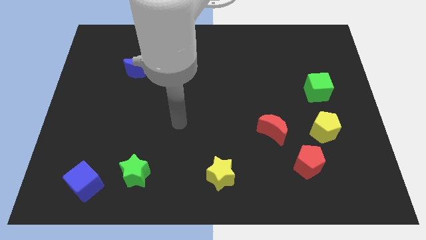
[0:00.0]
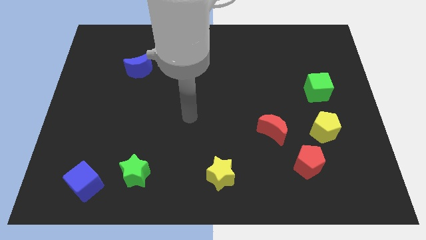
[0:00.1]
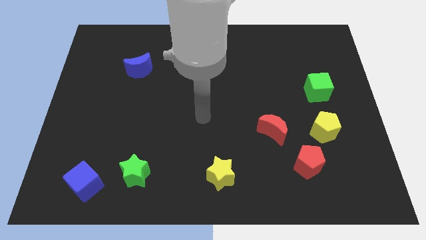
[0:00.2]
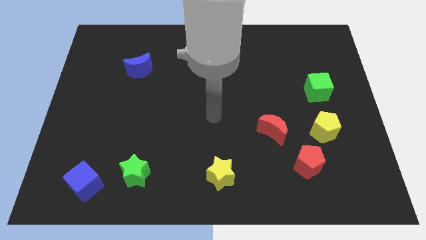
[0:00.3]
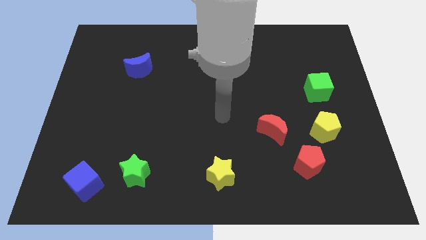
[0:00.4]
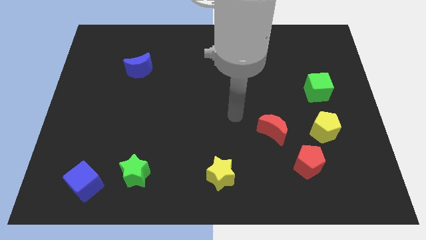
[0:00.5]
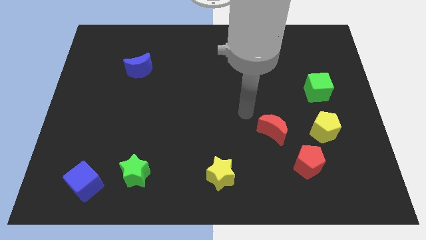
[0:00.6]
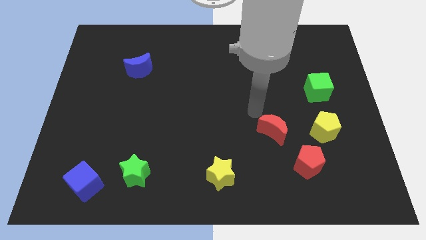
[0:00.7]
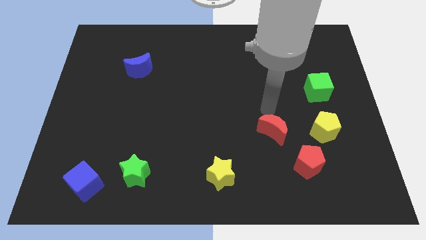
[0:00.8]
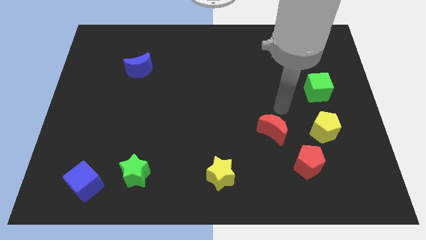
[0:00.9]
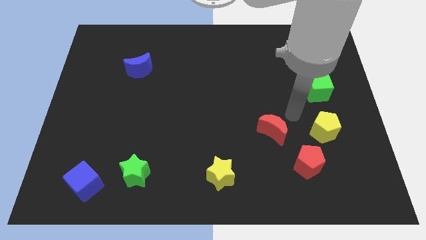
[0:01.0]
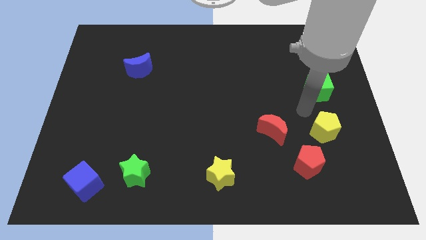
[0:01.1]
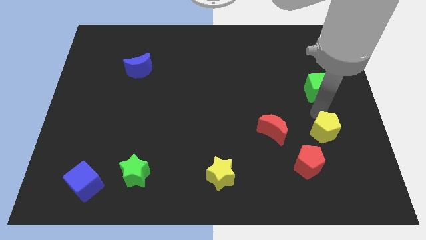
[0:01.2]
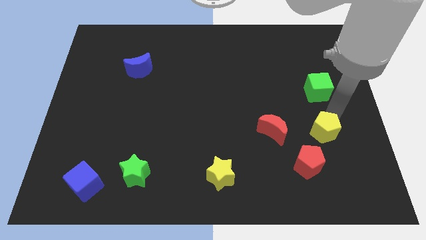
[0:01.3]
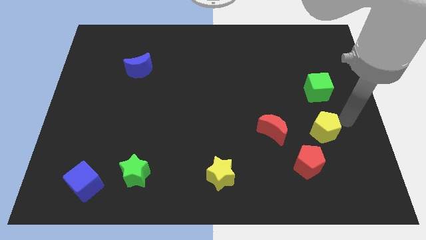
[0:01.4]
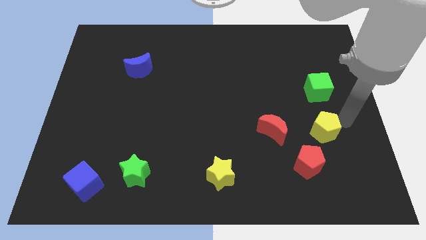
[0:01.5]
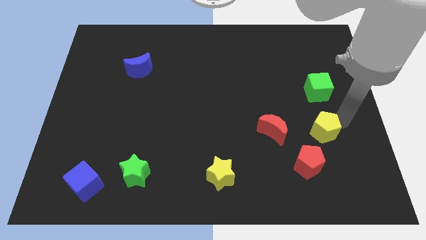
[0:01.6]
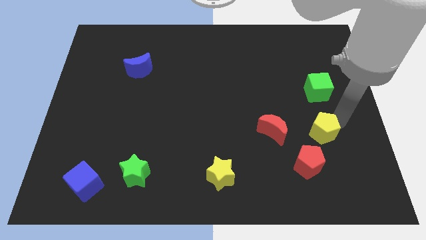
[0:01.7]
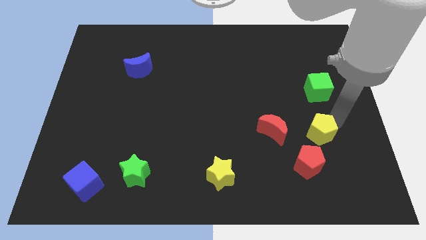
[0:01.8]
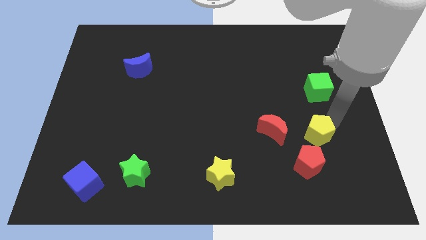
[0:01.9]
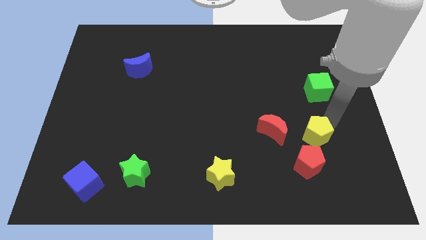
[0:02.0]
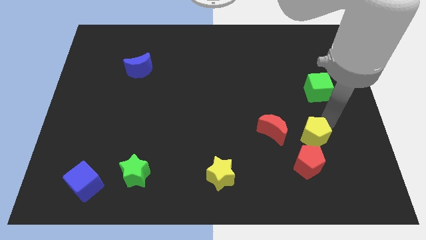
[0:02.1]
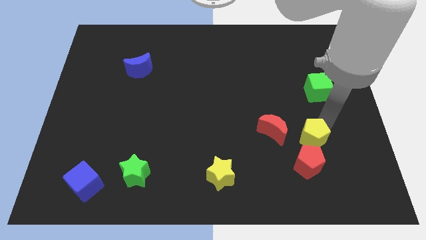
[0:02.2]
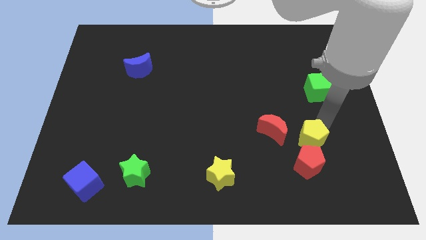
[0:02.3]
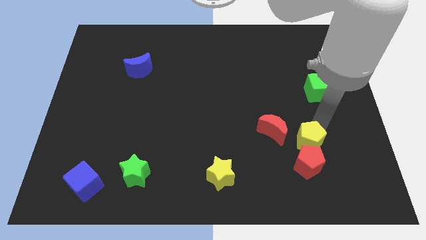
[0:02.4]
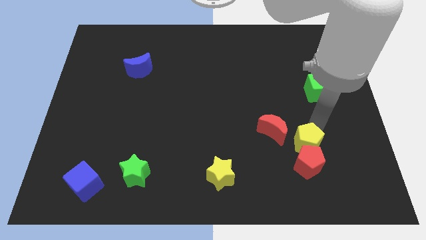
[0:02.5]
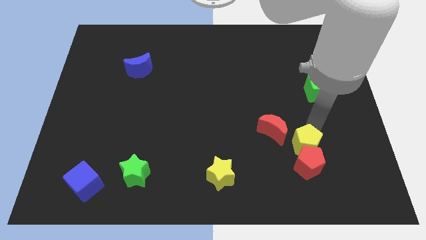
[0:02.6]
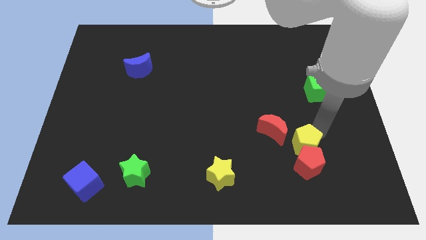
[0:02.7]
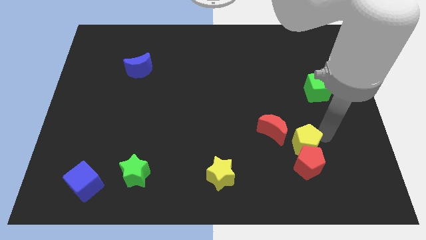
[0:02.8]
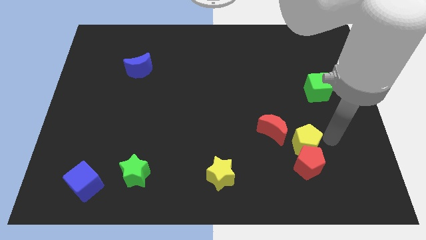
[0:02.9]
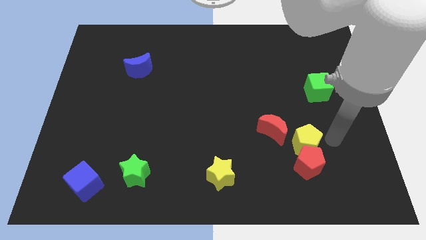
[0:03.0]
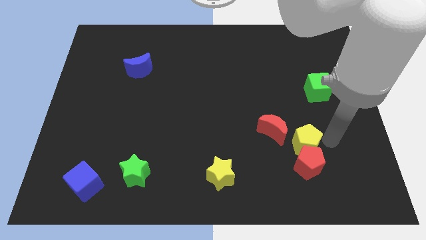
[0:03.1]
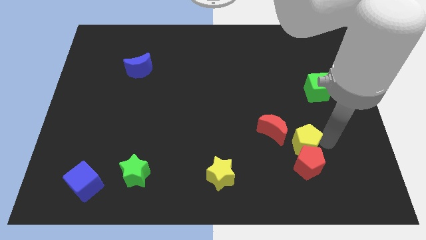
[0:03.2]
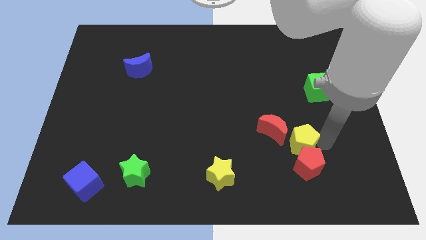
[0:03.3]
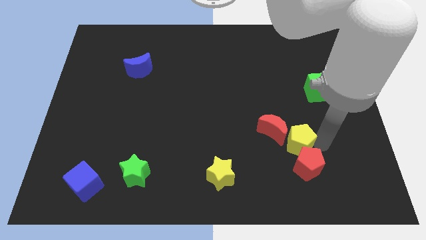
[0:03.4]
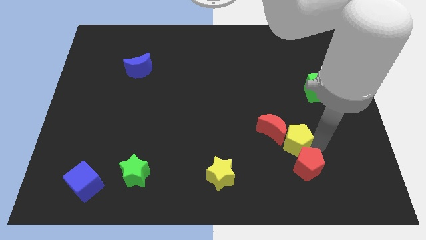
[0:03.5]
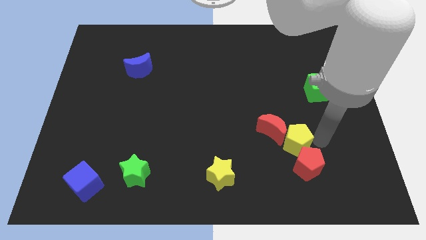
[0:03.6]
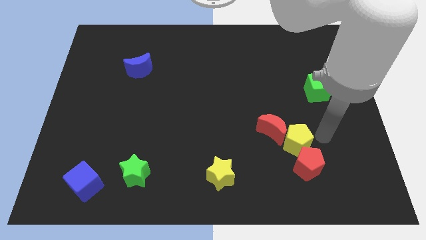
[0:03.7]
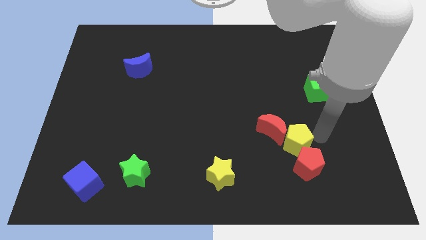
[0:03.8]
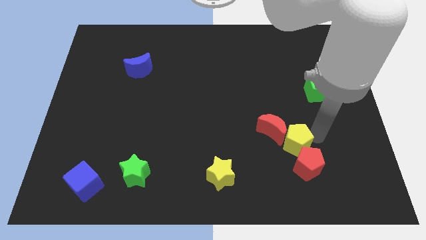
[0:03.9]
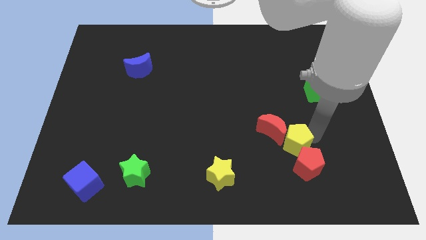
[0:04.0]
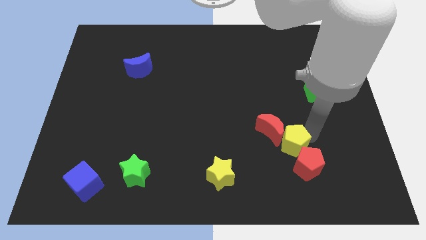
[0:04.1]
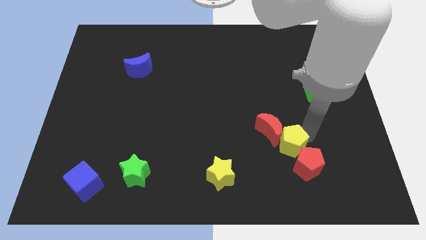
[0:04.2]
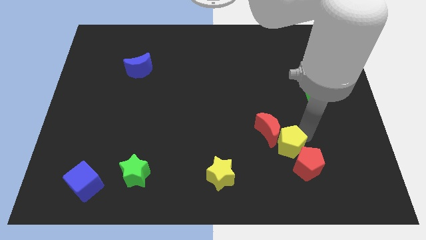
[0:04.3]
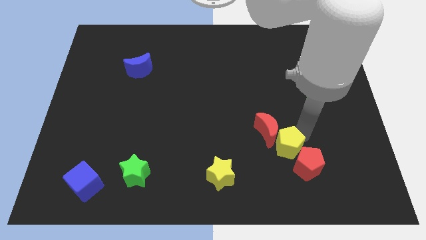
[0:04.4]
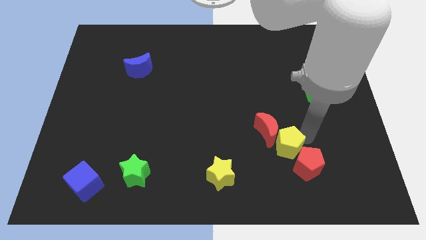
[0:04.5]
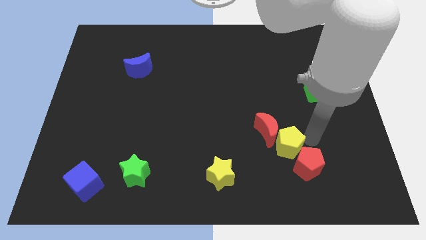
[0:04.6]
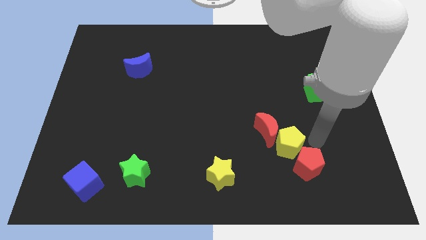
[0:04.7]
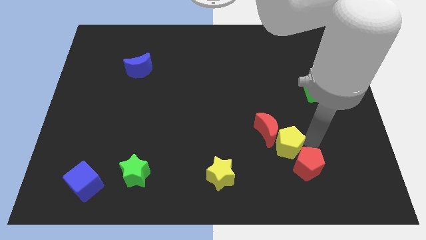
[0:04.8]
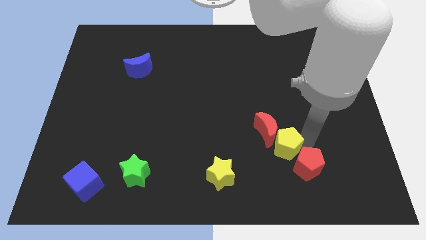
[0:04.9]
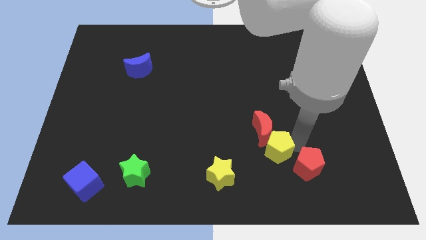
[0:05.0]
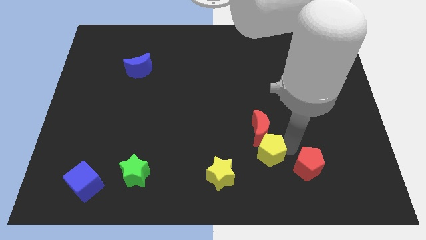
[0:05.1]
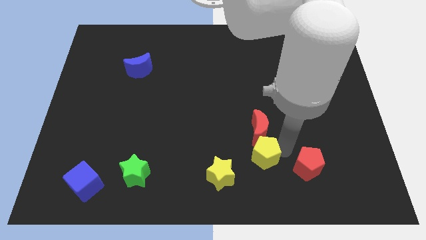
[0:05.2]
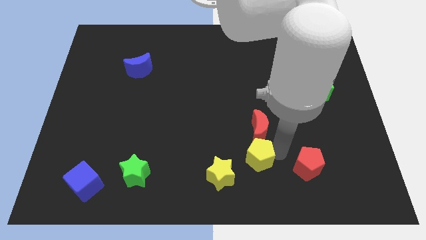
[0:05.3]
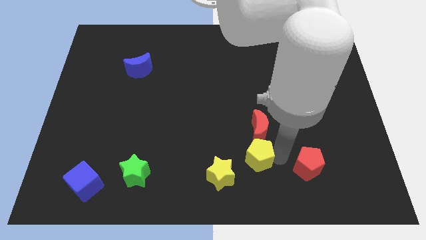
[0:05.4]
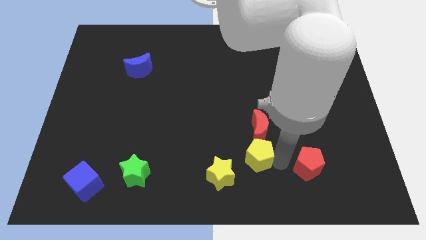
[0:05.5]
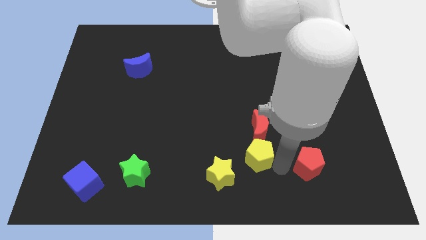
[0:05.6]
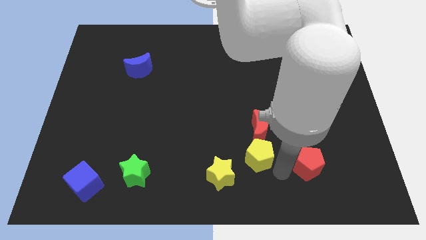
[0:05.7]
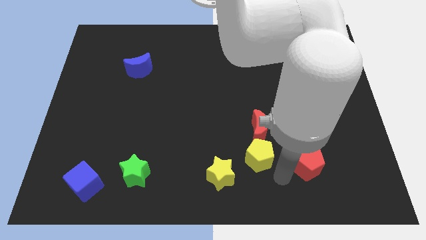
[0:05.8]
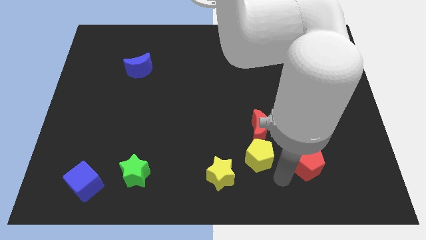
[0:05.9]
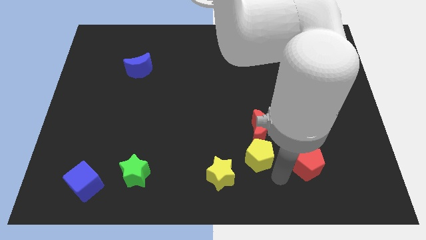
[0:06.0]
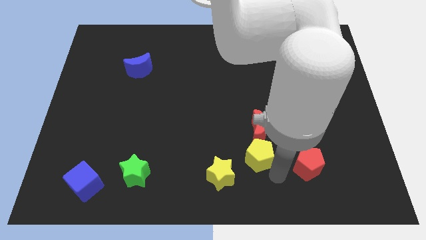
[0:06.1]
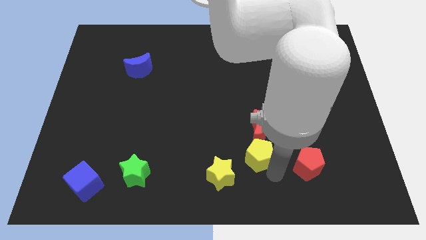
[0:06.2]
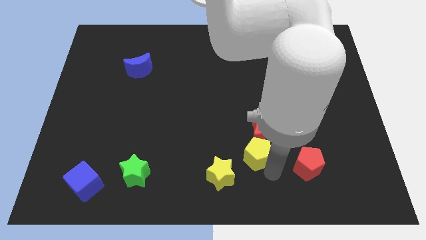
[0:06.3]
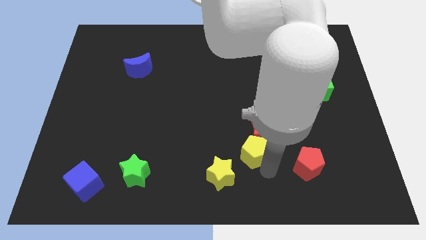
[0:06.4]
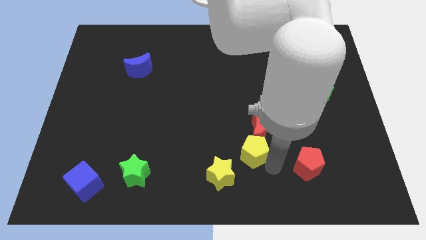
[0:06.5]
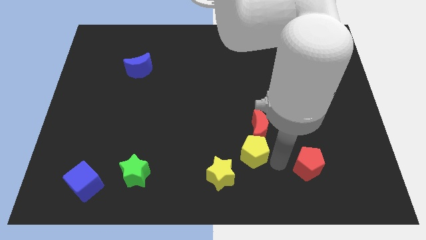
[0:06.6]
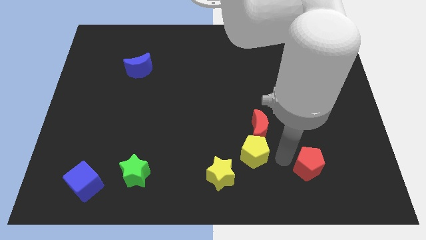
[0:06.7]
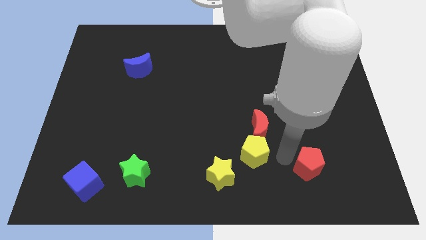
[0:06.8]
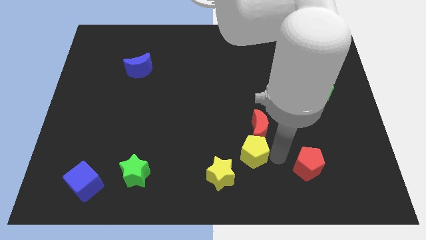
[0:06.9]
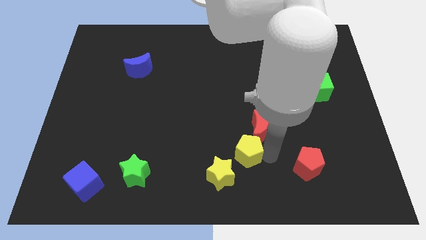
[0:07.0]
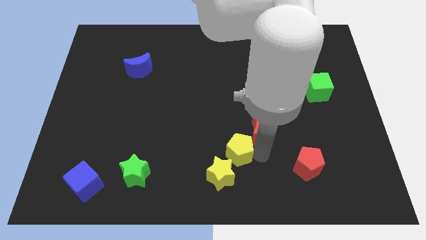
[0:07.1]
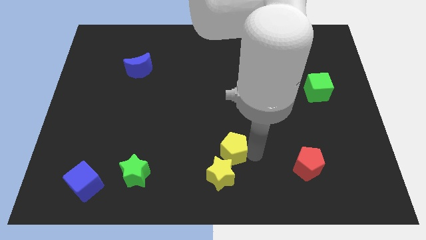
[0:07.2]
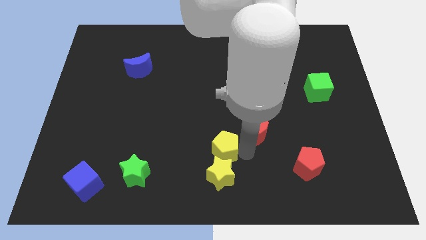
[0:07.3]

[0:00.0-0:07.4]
move the yellow pentagon to the left

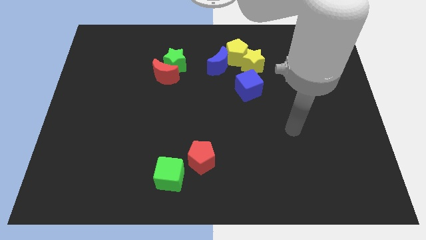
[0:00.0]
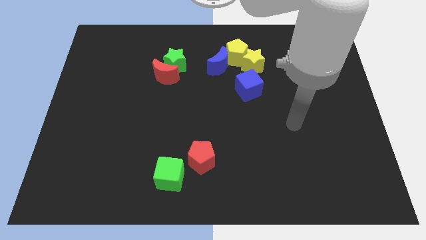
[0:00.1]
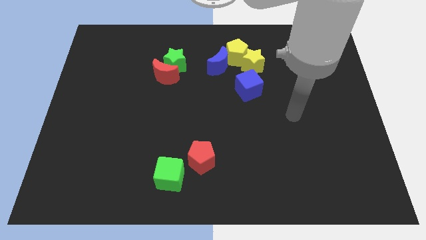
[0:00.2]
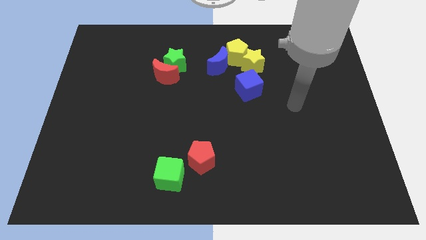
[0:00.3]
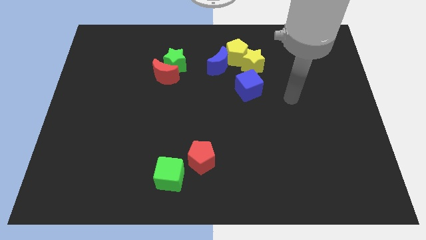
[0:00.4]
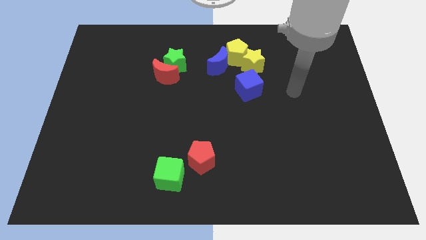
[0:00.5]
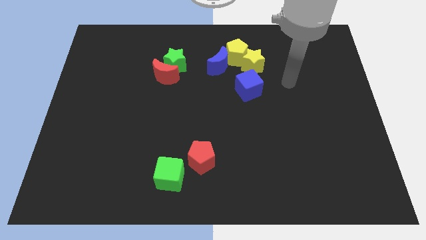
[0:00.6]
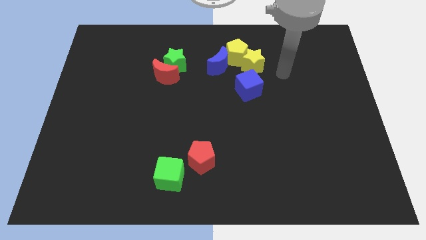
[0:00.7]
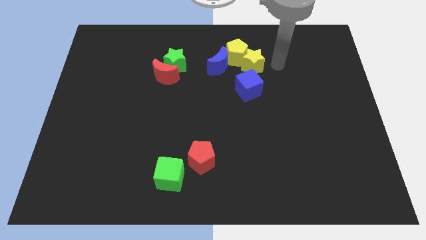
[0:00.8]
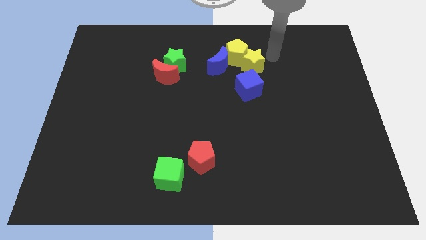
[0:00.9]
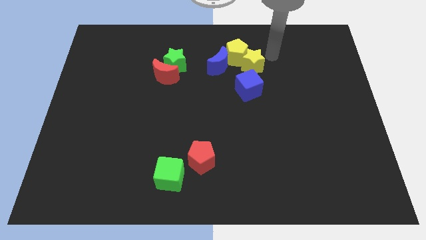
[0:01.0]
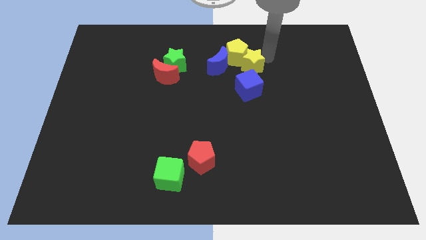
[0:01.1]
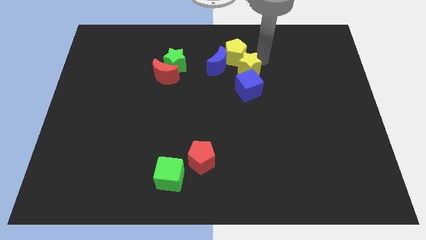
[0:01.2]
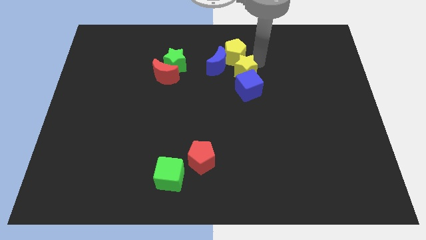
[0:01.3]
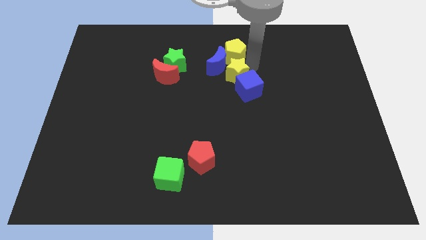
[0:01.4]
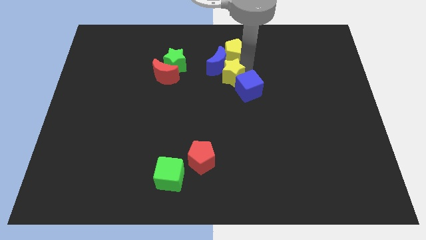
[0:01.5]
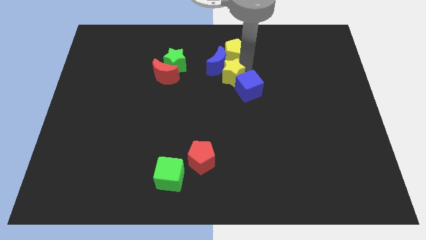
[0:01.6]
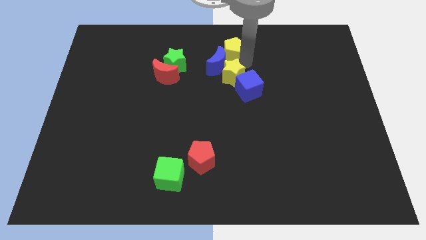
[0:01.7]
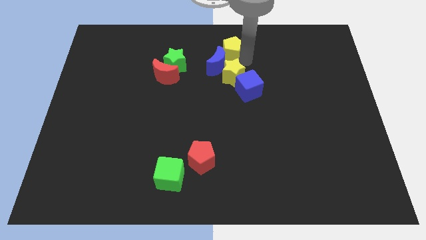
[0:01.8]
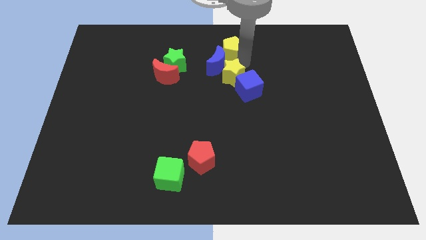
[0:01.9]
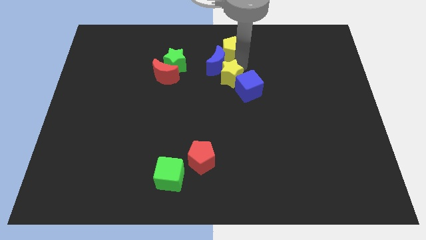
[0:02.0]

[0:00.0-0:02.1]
slightly move the yellow star diagonally downwards and to the left
